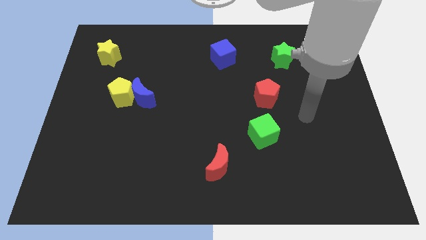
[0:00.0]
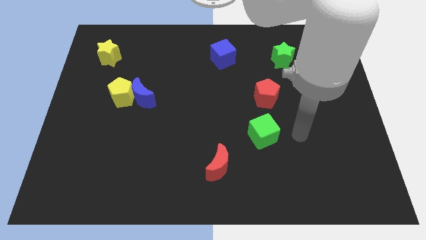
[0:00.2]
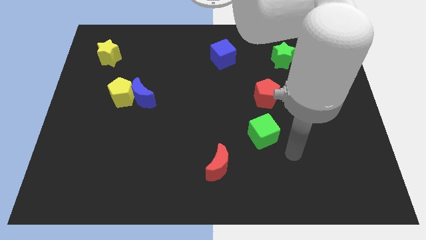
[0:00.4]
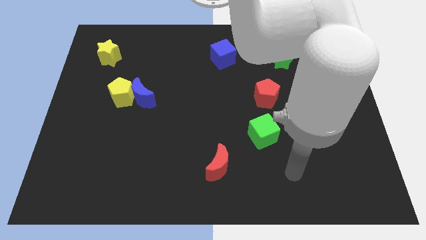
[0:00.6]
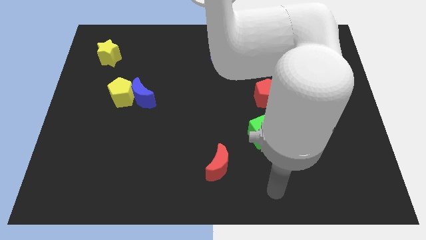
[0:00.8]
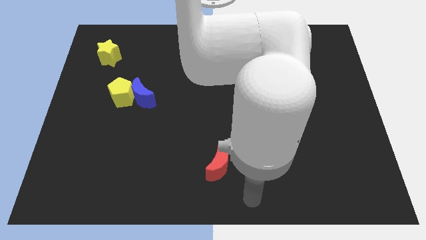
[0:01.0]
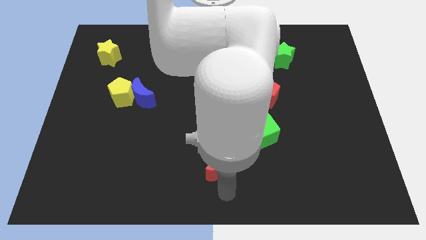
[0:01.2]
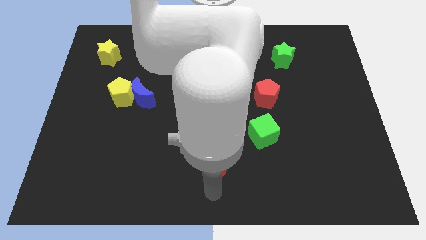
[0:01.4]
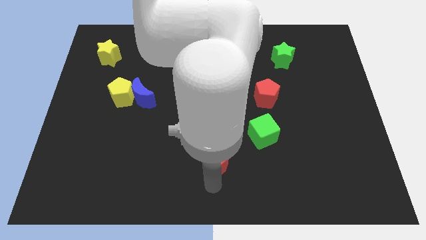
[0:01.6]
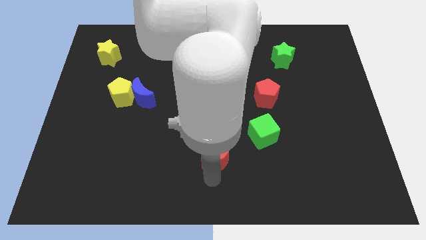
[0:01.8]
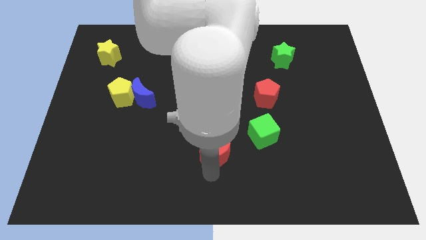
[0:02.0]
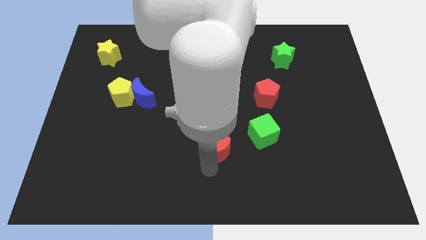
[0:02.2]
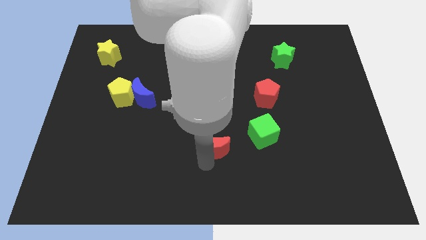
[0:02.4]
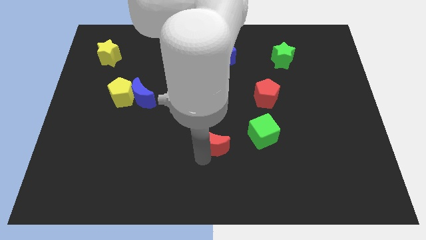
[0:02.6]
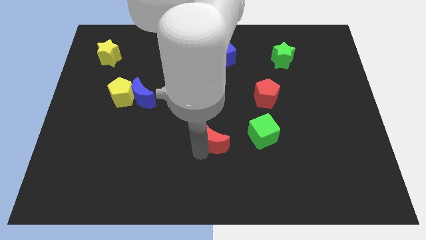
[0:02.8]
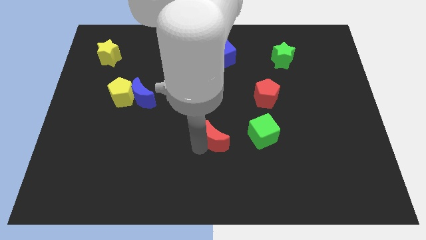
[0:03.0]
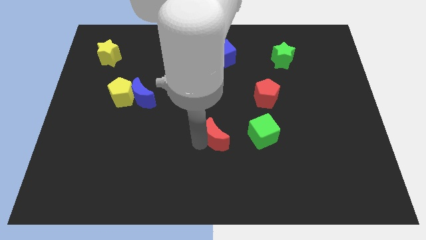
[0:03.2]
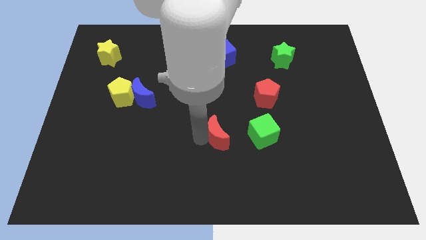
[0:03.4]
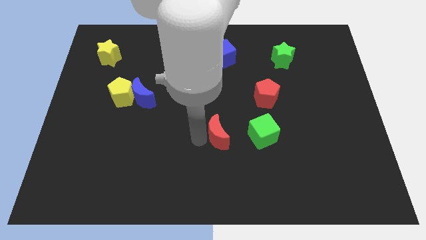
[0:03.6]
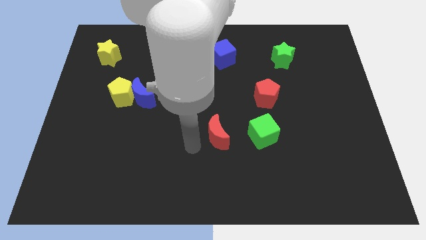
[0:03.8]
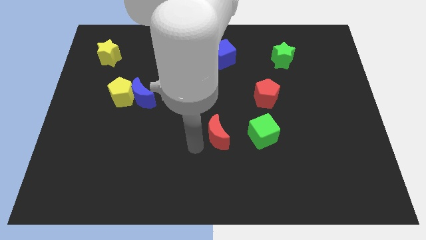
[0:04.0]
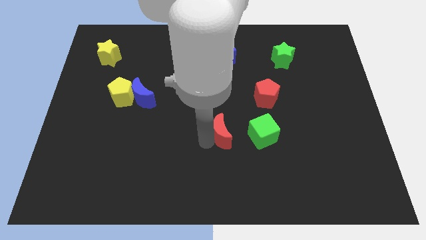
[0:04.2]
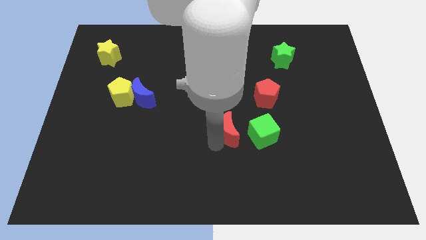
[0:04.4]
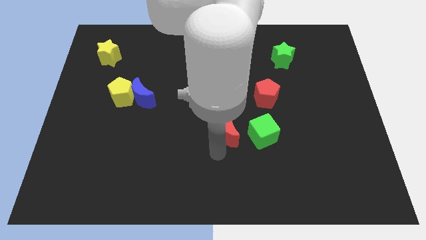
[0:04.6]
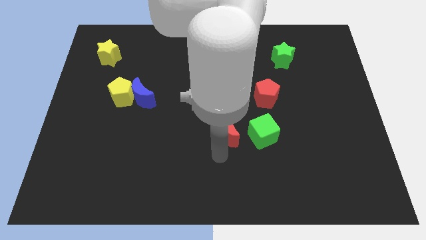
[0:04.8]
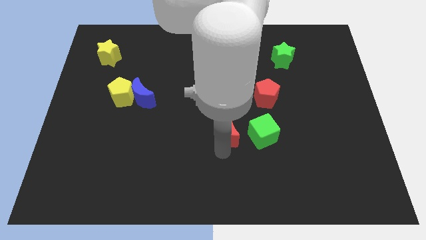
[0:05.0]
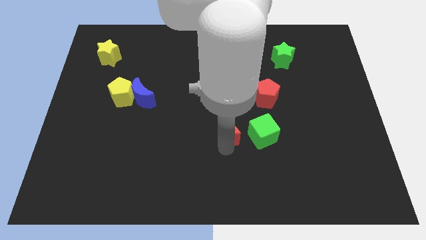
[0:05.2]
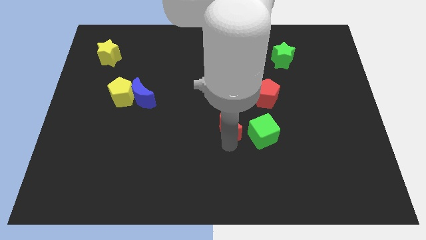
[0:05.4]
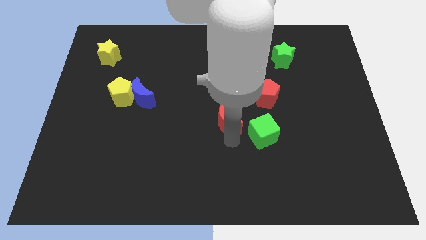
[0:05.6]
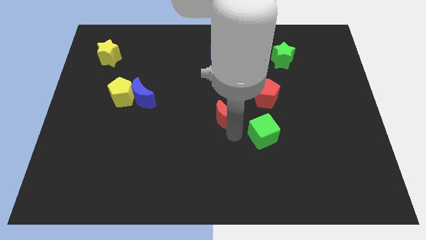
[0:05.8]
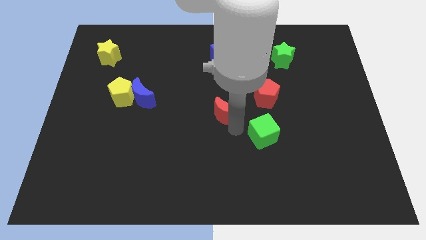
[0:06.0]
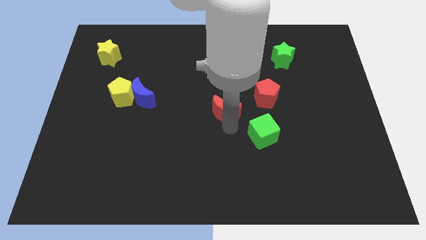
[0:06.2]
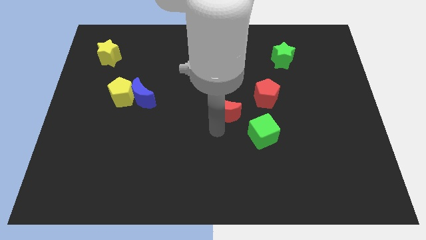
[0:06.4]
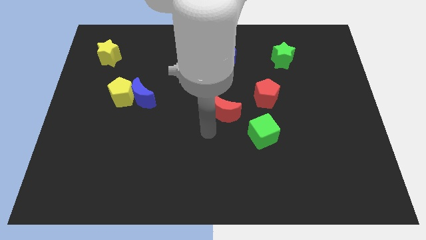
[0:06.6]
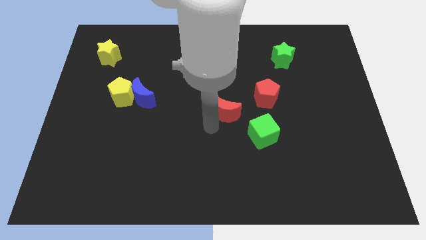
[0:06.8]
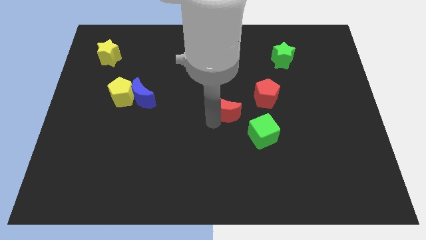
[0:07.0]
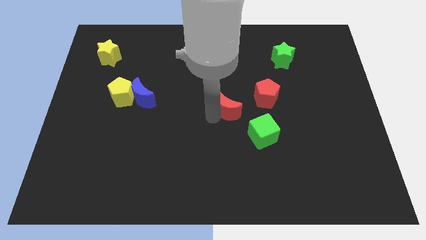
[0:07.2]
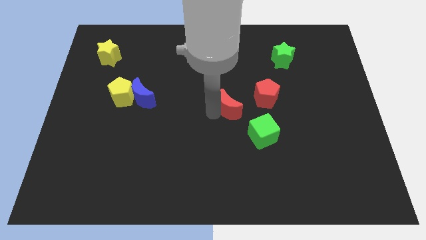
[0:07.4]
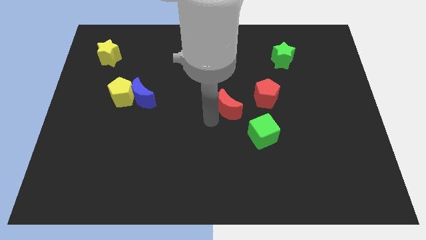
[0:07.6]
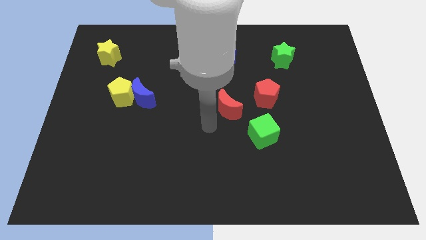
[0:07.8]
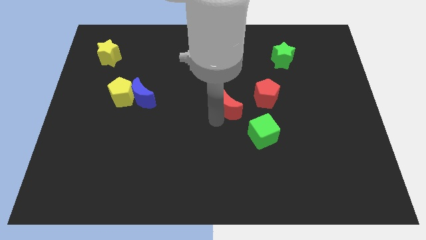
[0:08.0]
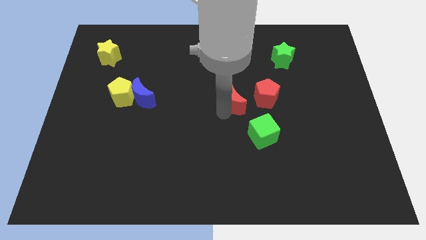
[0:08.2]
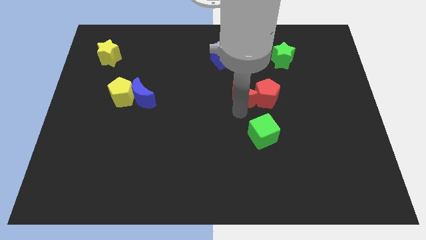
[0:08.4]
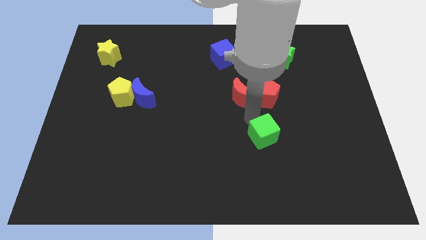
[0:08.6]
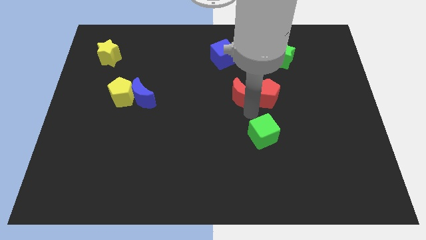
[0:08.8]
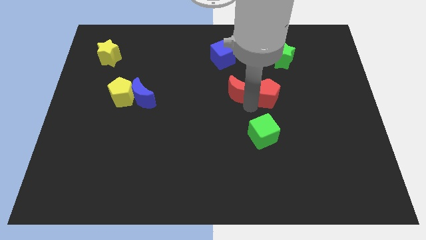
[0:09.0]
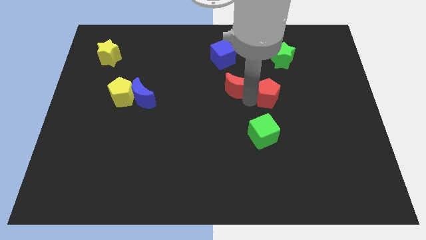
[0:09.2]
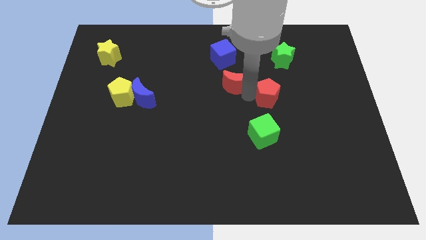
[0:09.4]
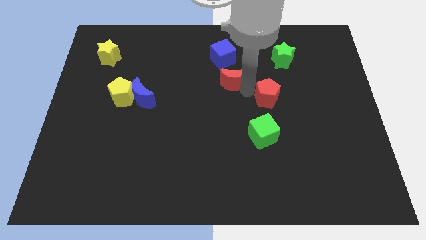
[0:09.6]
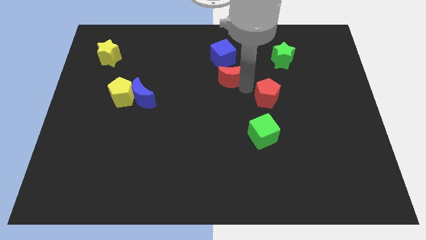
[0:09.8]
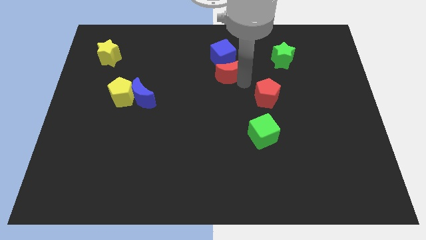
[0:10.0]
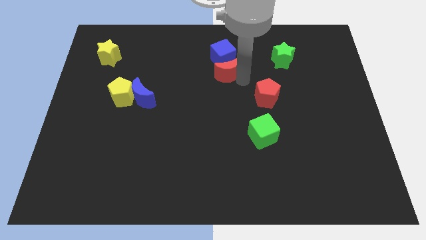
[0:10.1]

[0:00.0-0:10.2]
push the red moon close to the blue cube

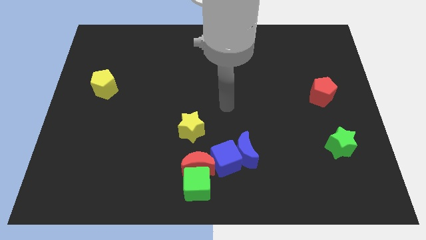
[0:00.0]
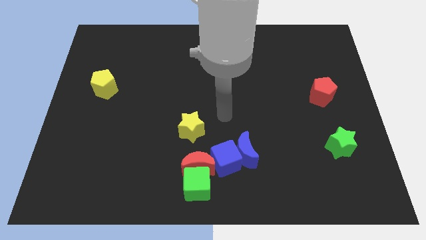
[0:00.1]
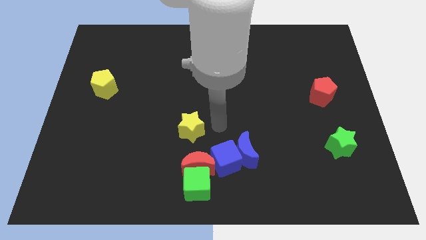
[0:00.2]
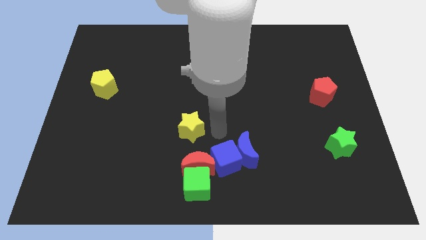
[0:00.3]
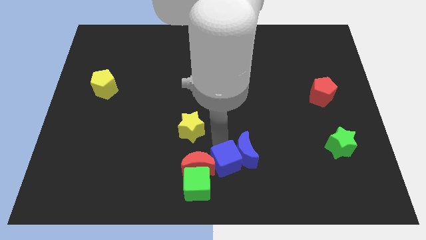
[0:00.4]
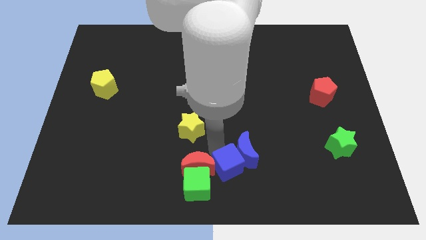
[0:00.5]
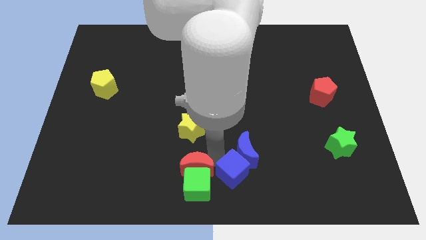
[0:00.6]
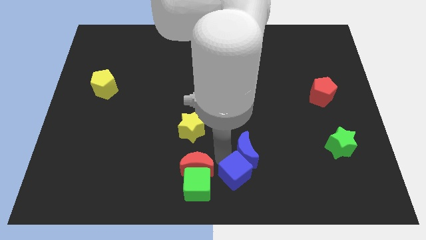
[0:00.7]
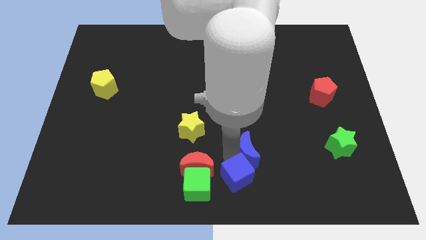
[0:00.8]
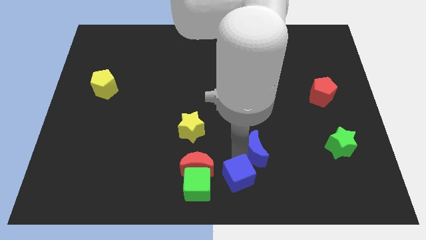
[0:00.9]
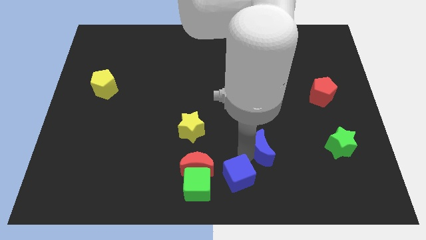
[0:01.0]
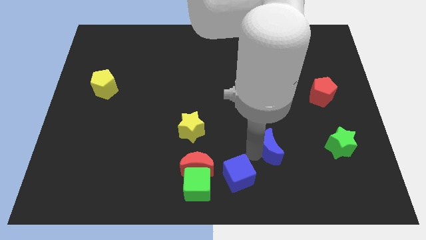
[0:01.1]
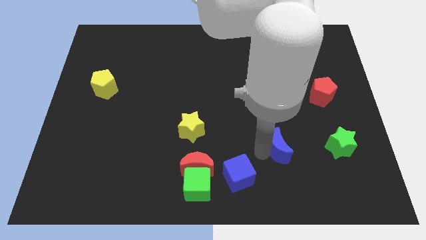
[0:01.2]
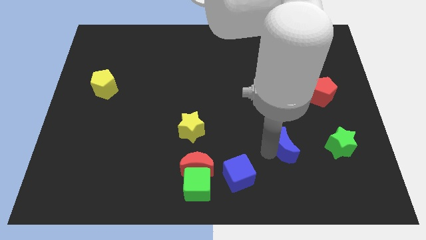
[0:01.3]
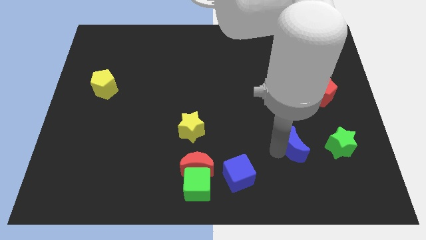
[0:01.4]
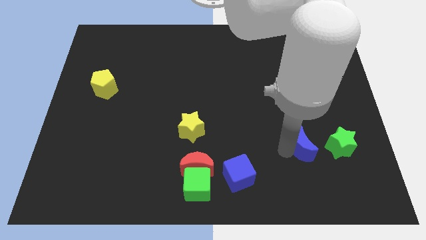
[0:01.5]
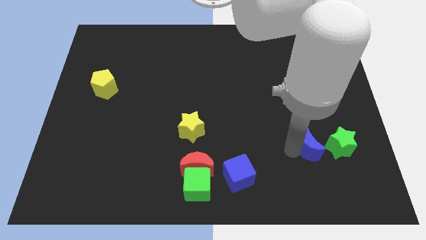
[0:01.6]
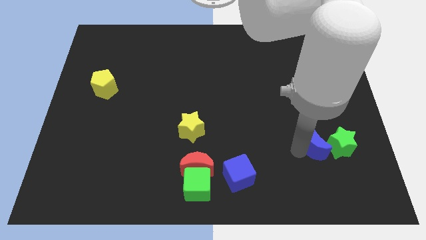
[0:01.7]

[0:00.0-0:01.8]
slide the blue moon towards the green star

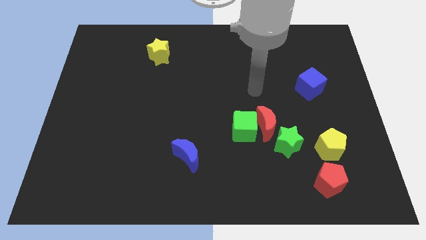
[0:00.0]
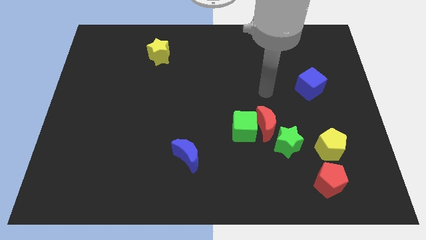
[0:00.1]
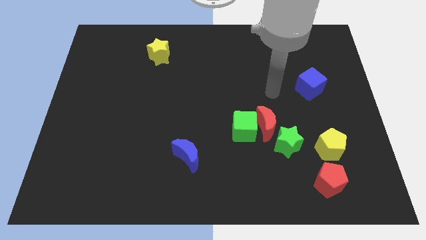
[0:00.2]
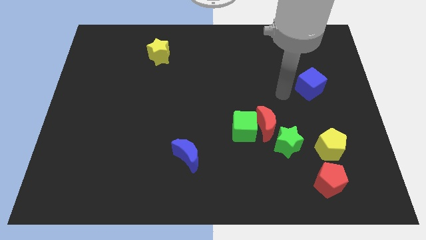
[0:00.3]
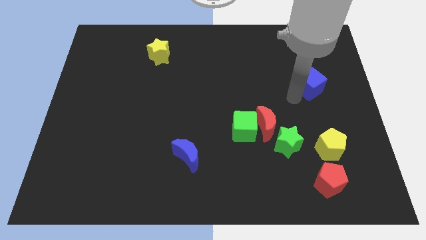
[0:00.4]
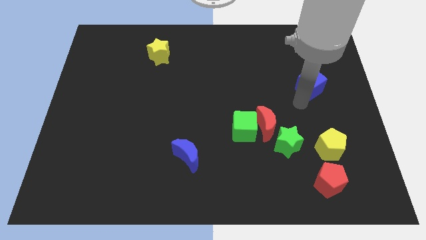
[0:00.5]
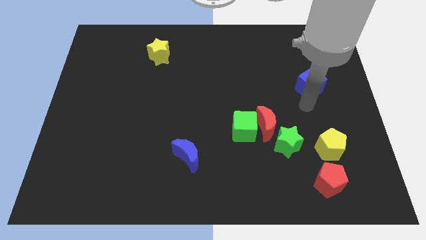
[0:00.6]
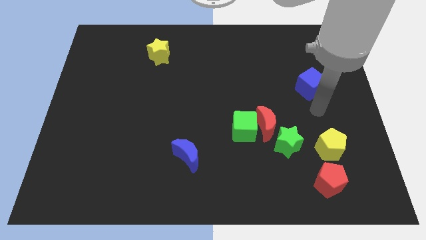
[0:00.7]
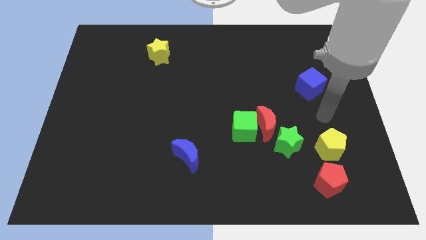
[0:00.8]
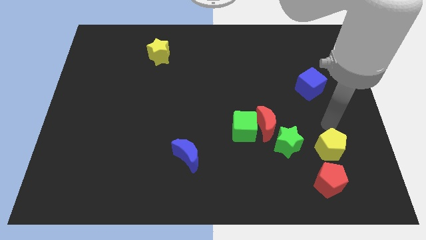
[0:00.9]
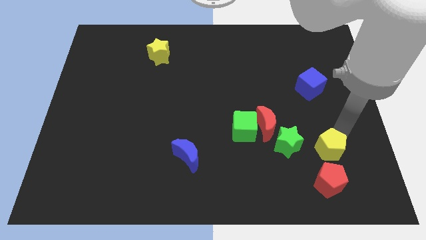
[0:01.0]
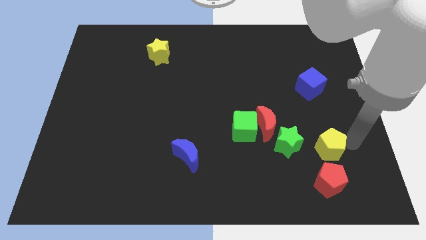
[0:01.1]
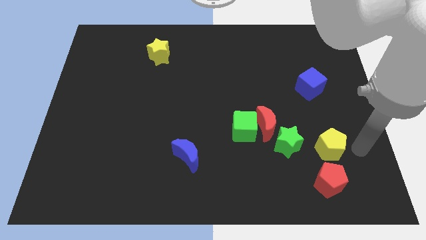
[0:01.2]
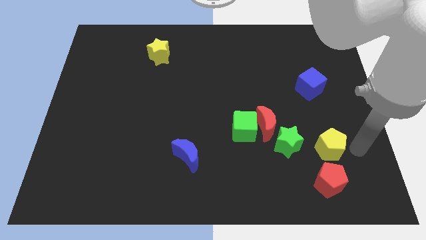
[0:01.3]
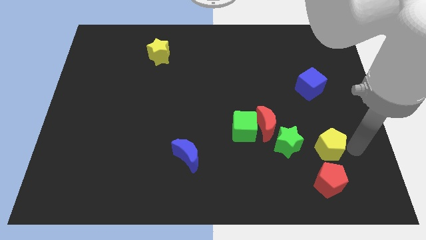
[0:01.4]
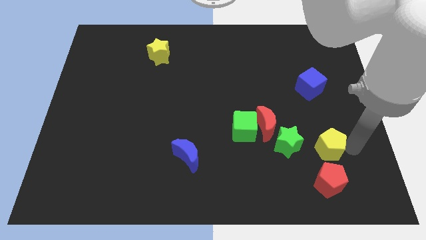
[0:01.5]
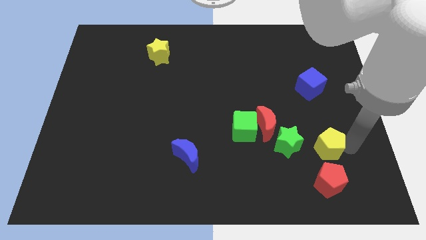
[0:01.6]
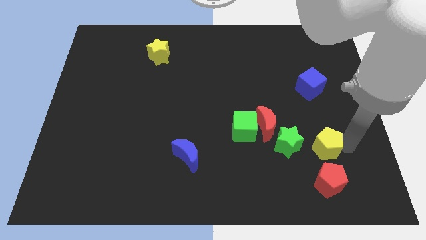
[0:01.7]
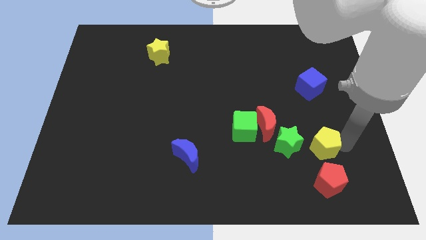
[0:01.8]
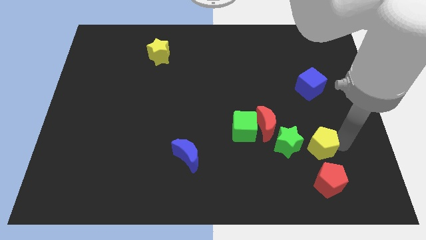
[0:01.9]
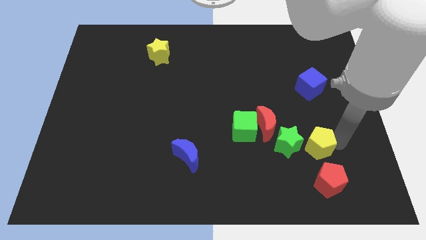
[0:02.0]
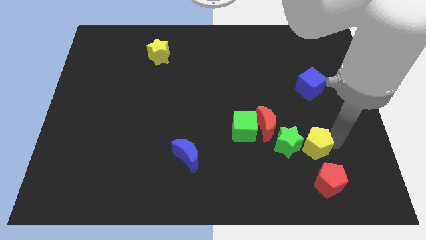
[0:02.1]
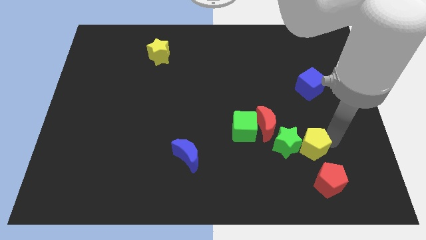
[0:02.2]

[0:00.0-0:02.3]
move the yellow pentagon towards the green star
